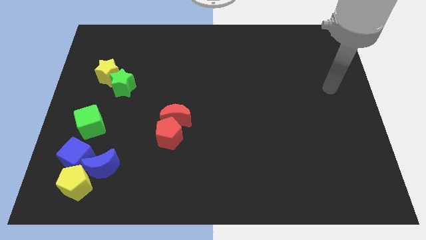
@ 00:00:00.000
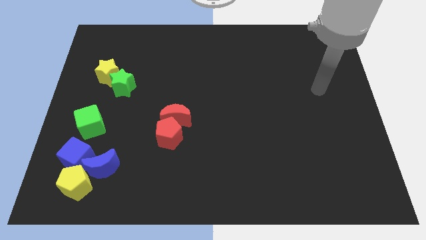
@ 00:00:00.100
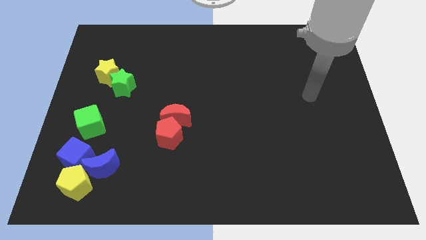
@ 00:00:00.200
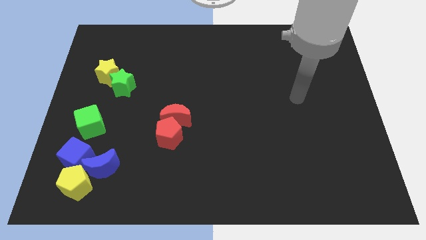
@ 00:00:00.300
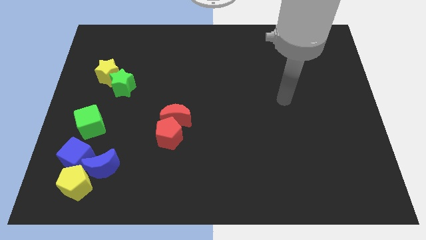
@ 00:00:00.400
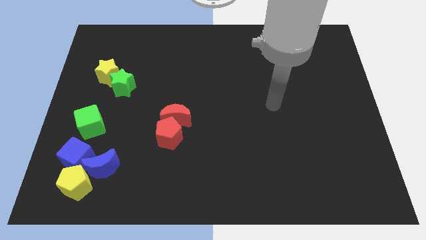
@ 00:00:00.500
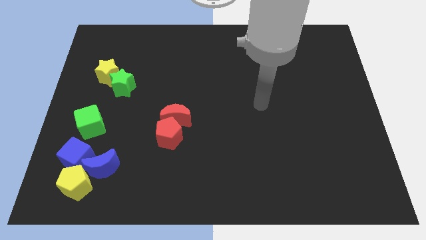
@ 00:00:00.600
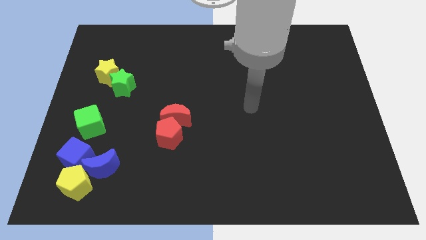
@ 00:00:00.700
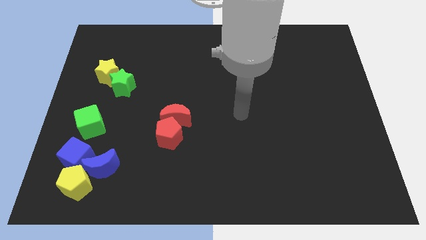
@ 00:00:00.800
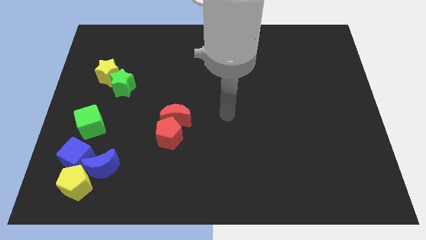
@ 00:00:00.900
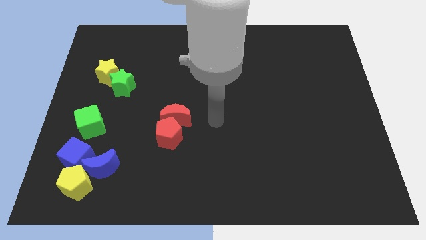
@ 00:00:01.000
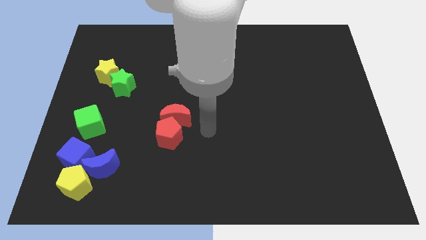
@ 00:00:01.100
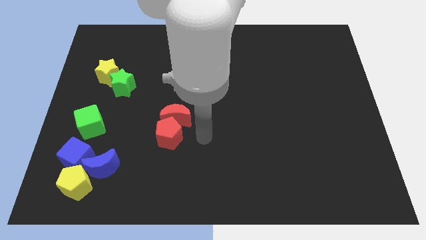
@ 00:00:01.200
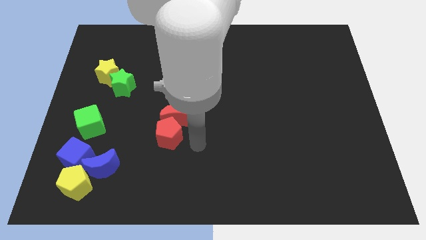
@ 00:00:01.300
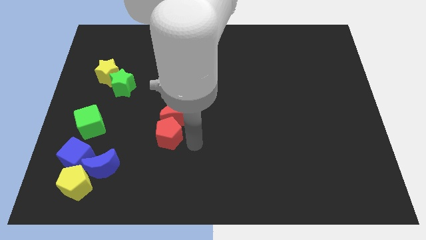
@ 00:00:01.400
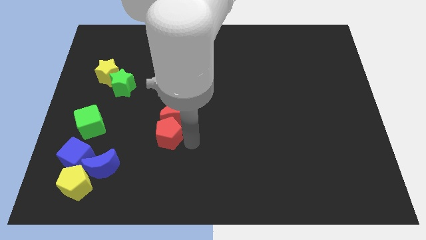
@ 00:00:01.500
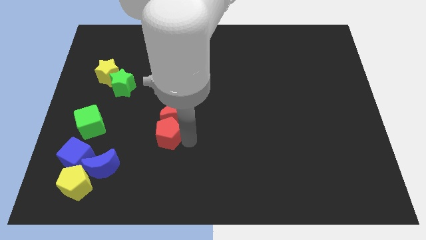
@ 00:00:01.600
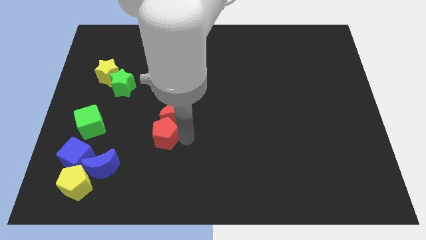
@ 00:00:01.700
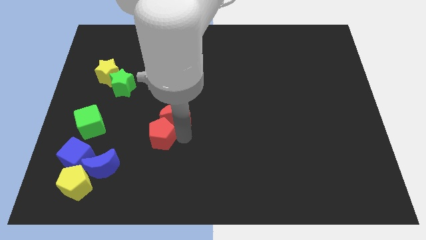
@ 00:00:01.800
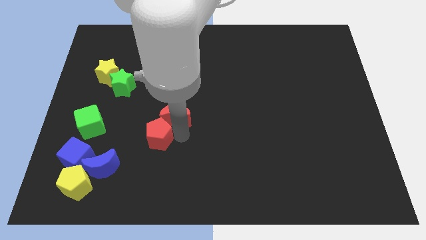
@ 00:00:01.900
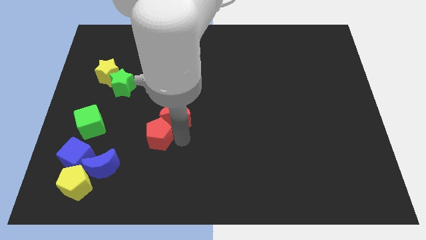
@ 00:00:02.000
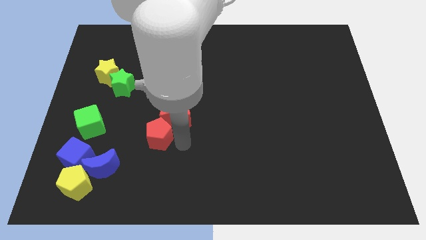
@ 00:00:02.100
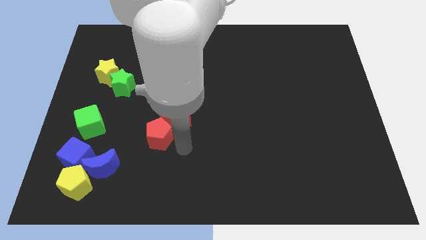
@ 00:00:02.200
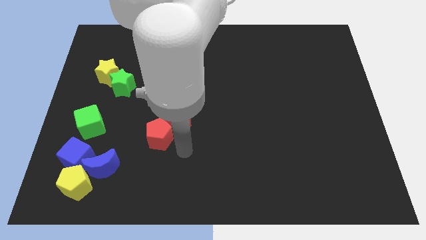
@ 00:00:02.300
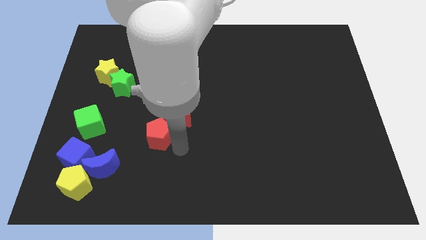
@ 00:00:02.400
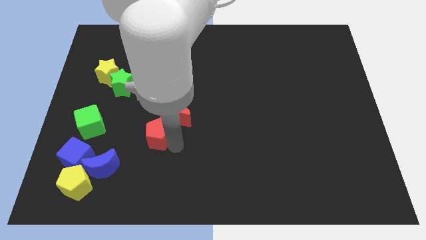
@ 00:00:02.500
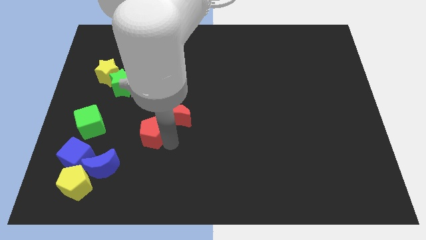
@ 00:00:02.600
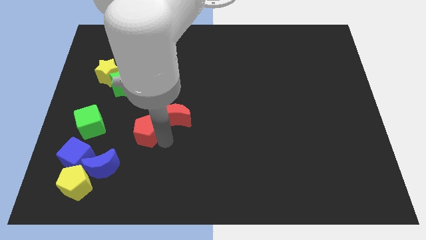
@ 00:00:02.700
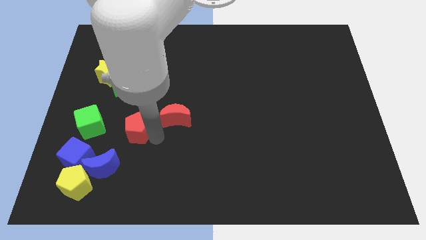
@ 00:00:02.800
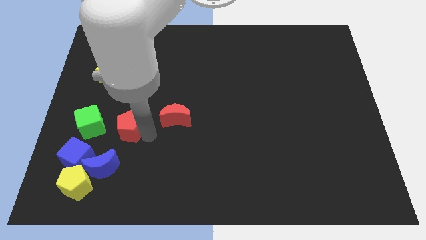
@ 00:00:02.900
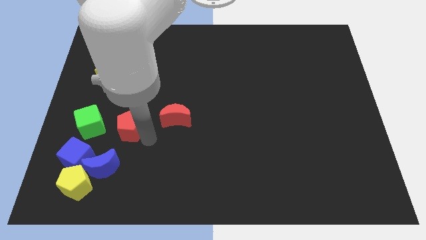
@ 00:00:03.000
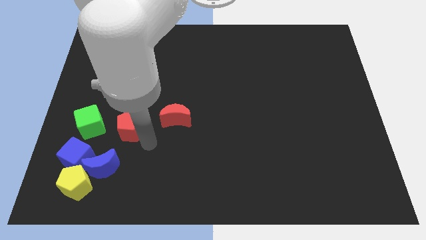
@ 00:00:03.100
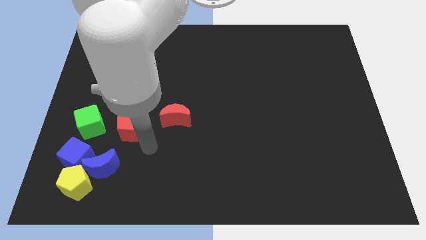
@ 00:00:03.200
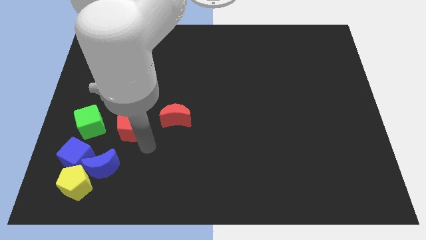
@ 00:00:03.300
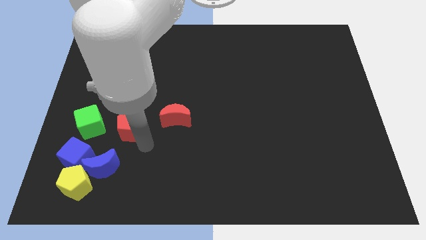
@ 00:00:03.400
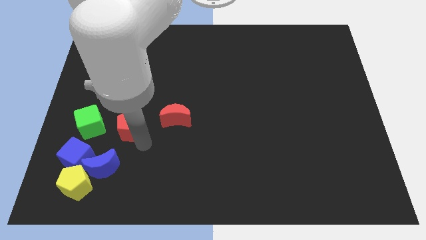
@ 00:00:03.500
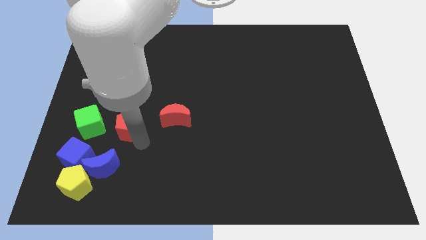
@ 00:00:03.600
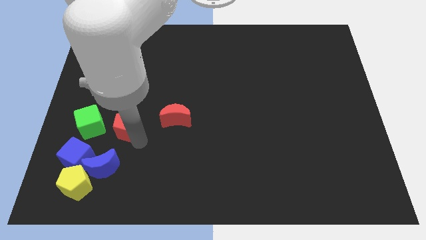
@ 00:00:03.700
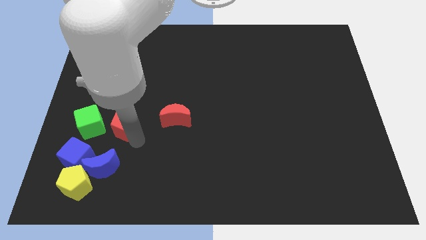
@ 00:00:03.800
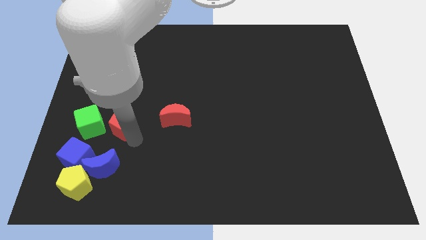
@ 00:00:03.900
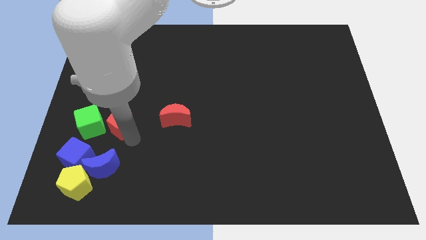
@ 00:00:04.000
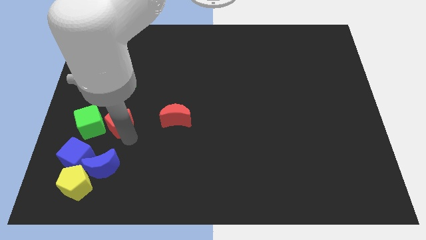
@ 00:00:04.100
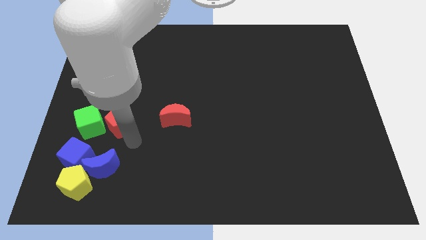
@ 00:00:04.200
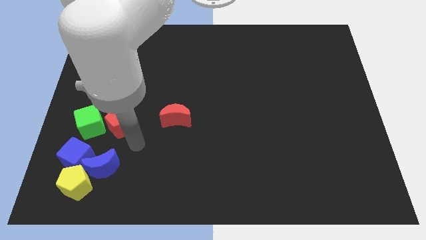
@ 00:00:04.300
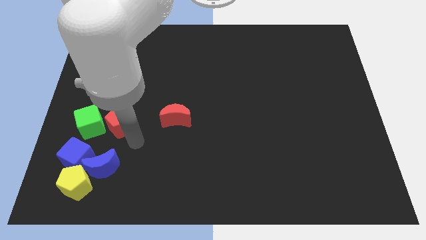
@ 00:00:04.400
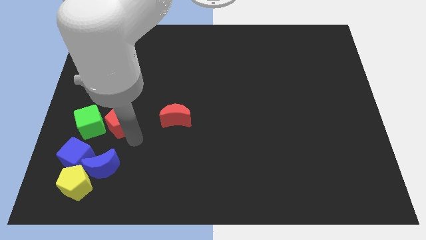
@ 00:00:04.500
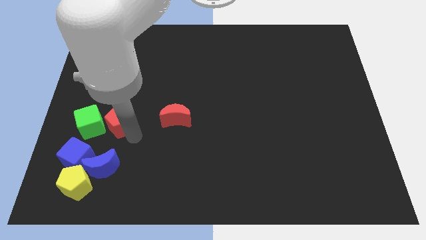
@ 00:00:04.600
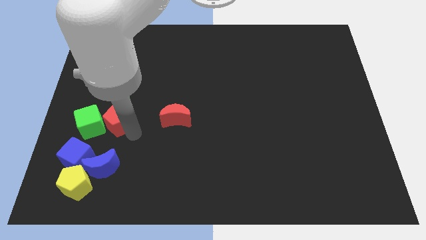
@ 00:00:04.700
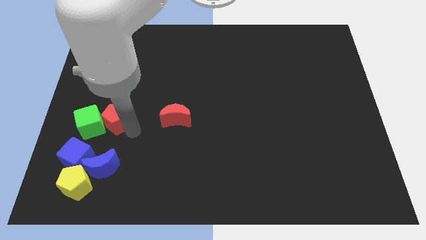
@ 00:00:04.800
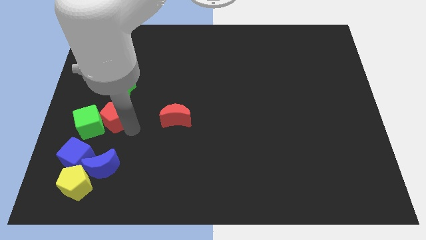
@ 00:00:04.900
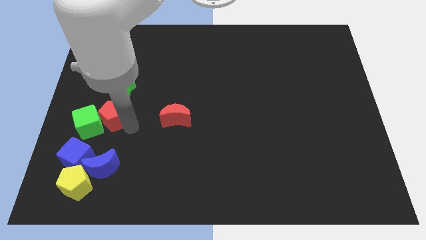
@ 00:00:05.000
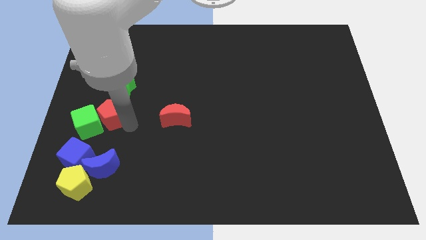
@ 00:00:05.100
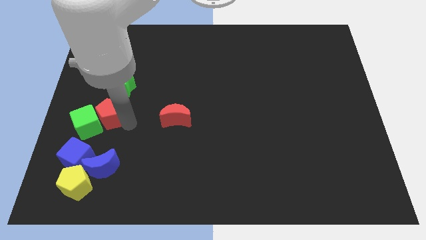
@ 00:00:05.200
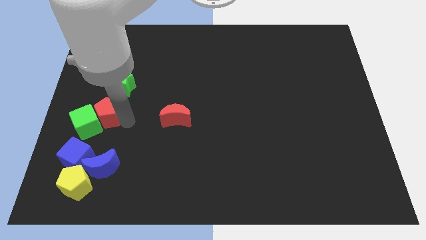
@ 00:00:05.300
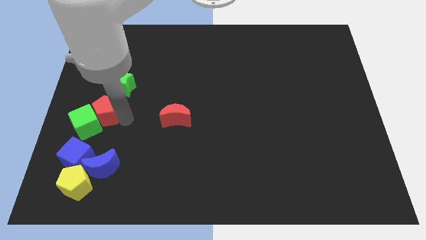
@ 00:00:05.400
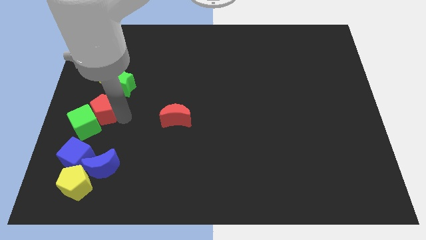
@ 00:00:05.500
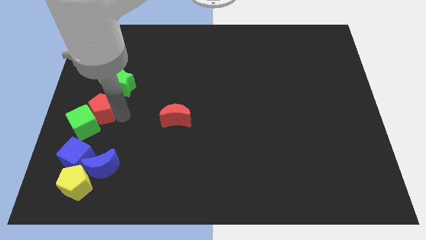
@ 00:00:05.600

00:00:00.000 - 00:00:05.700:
slide the red pentagon to the center left

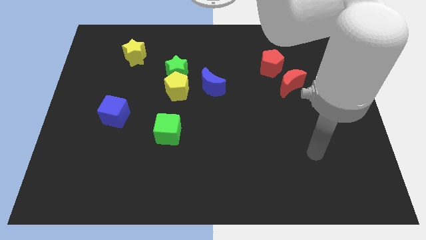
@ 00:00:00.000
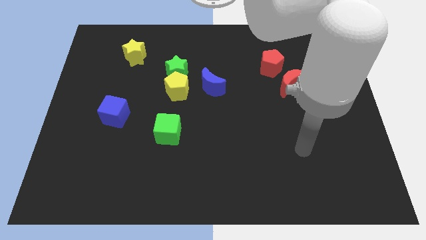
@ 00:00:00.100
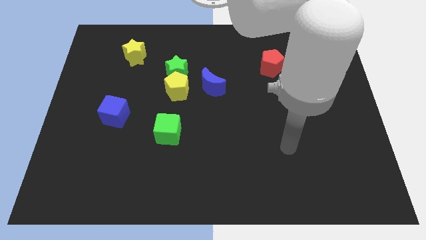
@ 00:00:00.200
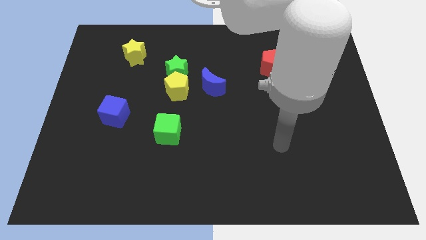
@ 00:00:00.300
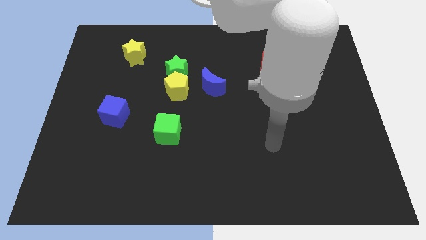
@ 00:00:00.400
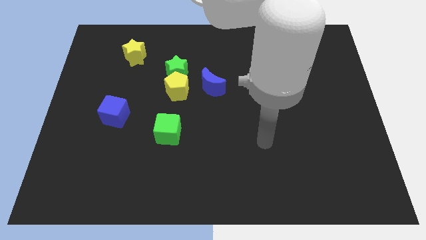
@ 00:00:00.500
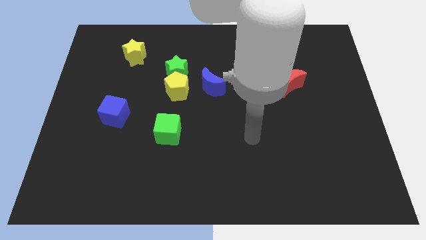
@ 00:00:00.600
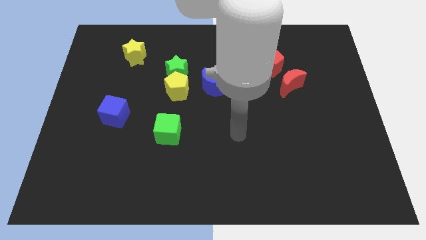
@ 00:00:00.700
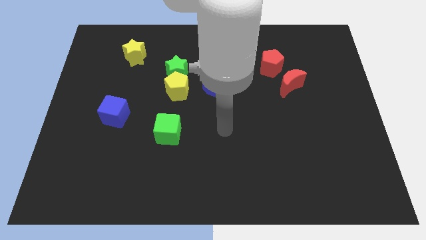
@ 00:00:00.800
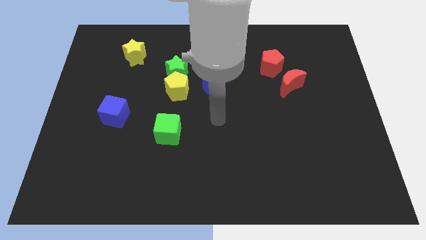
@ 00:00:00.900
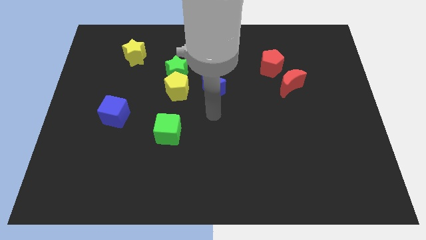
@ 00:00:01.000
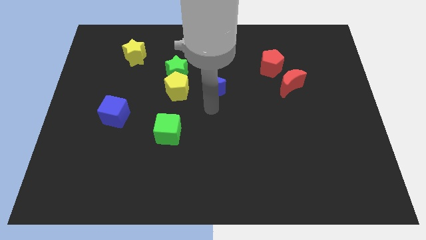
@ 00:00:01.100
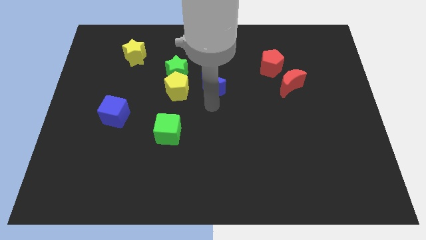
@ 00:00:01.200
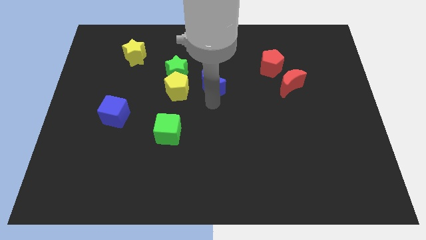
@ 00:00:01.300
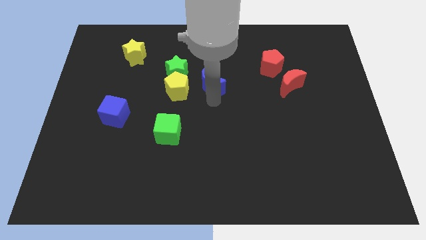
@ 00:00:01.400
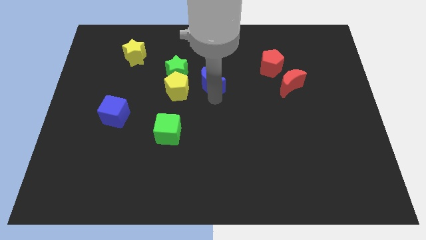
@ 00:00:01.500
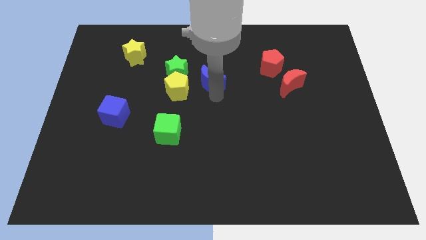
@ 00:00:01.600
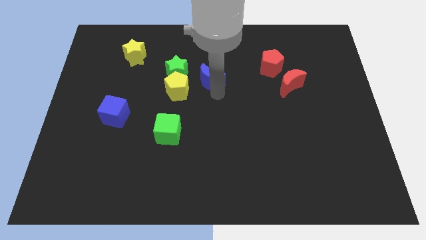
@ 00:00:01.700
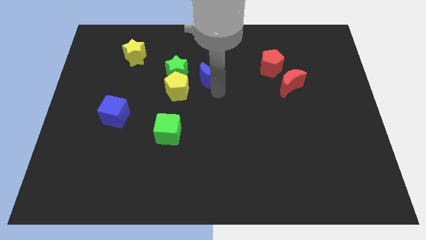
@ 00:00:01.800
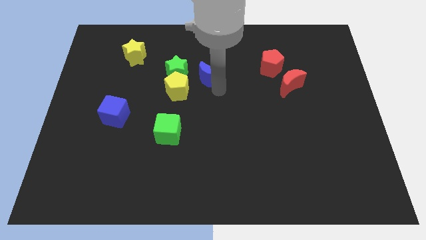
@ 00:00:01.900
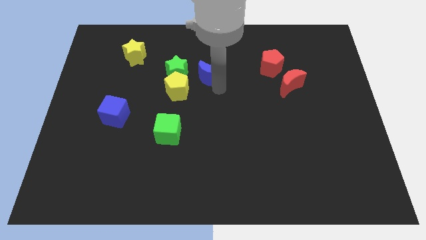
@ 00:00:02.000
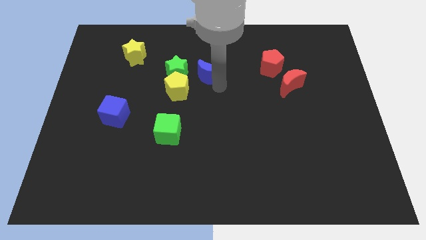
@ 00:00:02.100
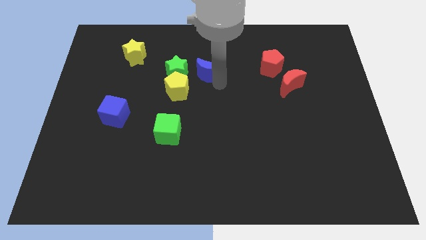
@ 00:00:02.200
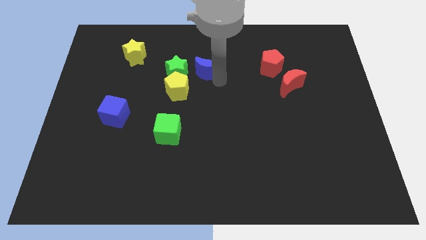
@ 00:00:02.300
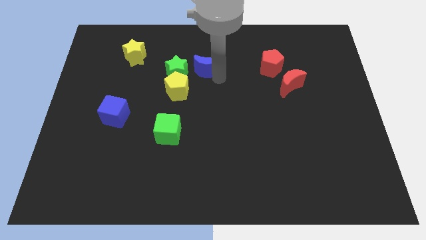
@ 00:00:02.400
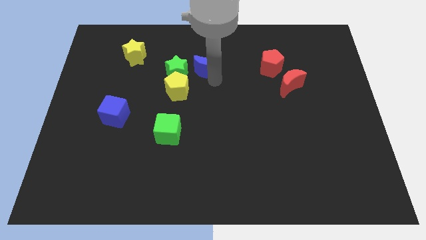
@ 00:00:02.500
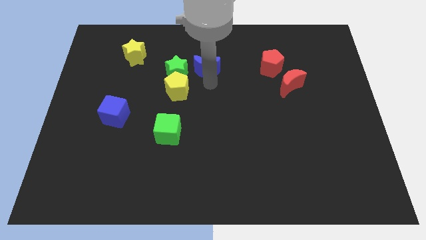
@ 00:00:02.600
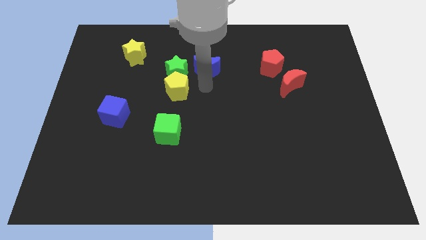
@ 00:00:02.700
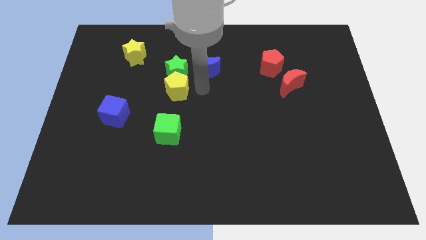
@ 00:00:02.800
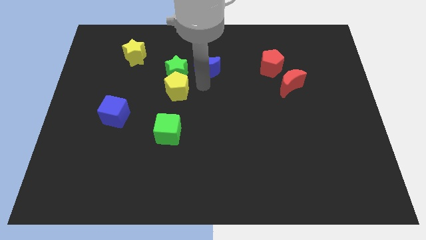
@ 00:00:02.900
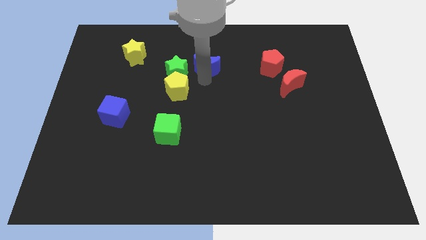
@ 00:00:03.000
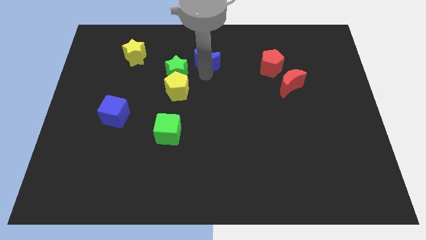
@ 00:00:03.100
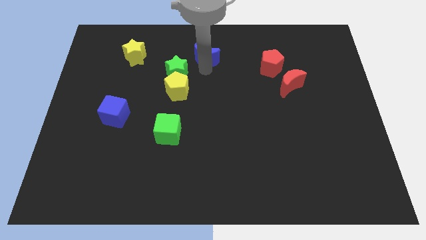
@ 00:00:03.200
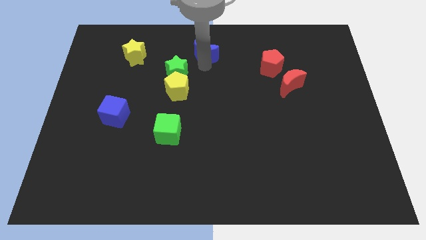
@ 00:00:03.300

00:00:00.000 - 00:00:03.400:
slide the blue moon to the towards your base
